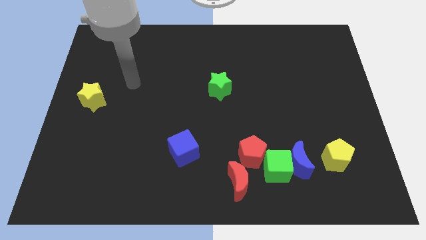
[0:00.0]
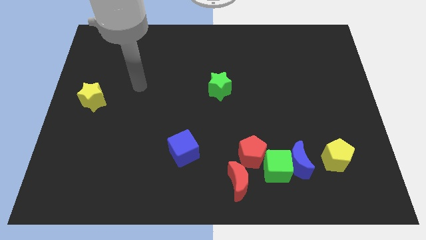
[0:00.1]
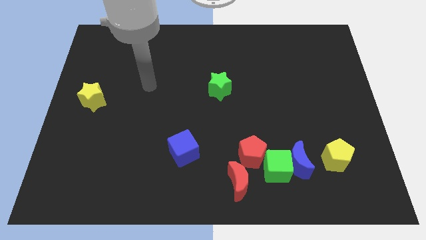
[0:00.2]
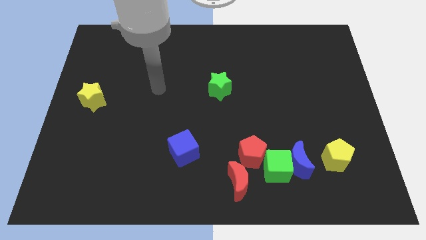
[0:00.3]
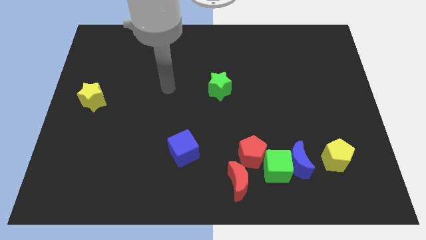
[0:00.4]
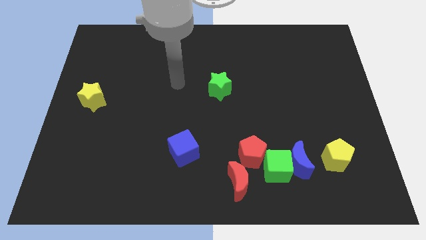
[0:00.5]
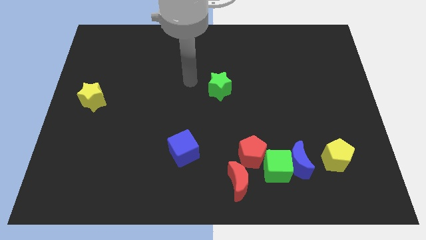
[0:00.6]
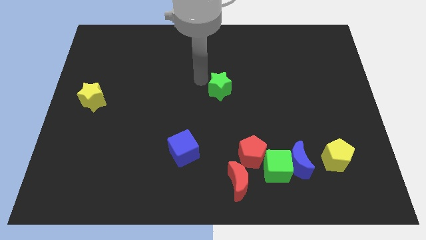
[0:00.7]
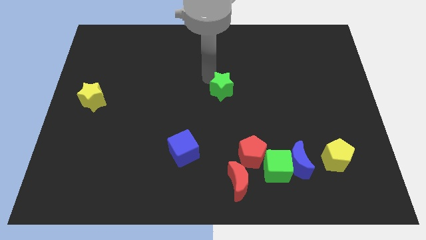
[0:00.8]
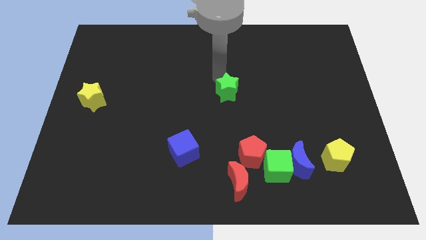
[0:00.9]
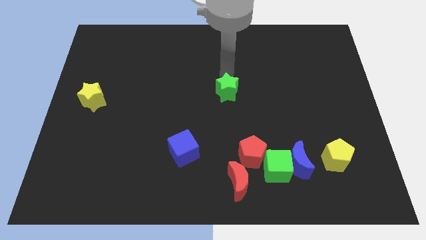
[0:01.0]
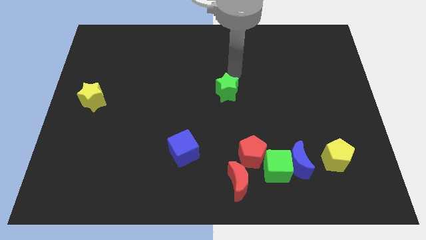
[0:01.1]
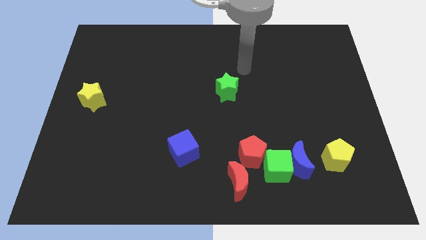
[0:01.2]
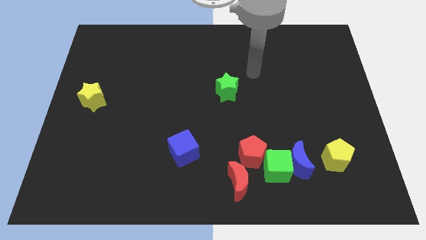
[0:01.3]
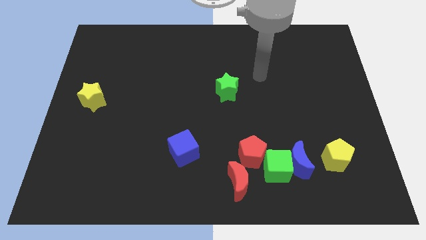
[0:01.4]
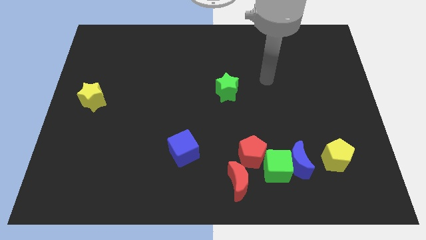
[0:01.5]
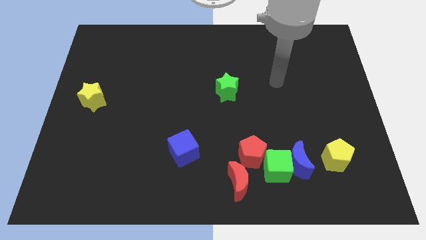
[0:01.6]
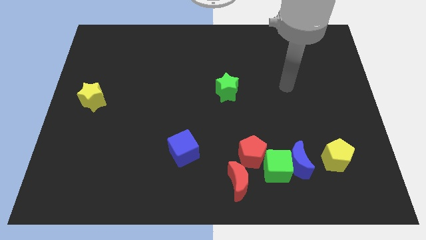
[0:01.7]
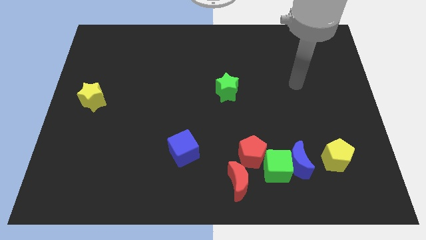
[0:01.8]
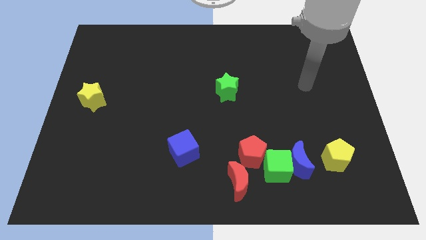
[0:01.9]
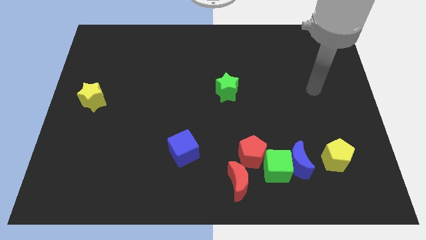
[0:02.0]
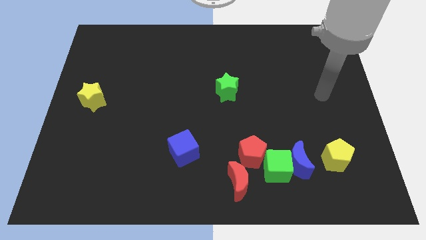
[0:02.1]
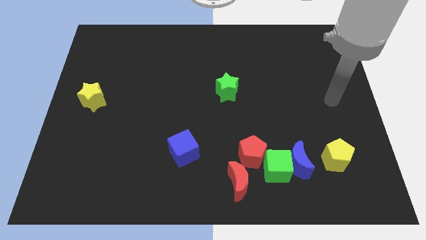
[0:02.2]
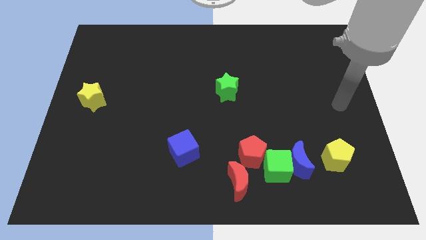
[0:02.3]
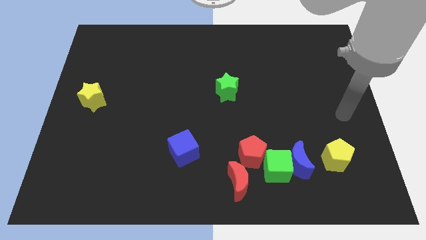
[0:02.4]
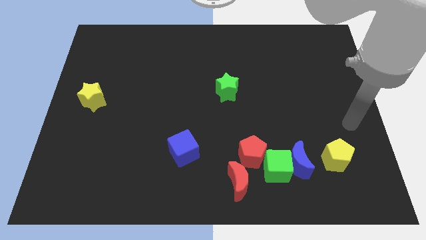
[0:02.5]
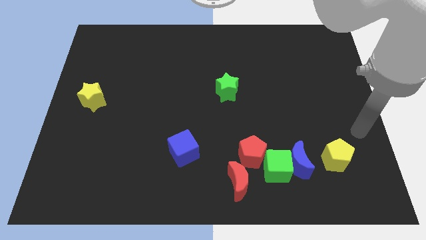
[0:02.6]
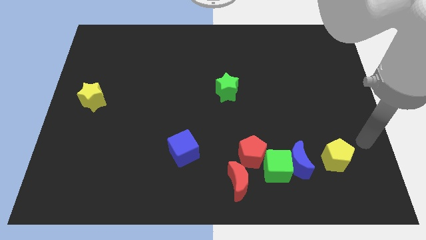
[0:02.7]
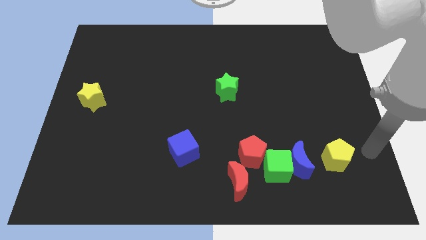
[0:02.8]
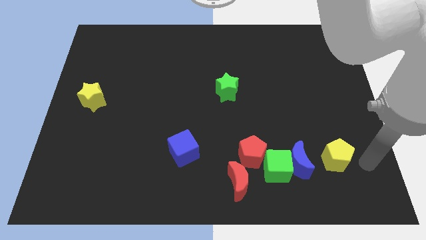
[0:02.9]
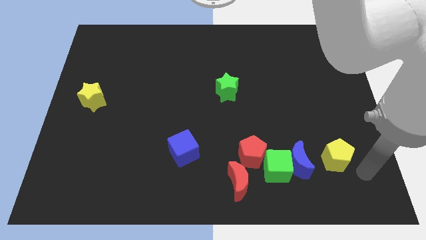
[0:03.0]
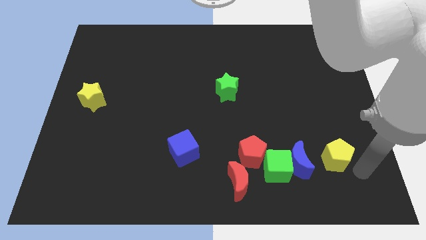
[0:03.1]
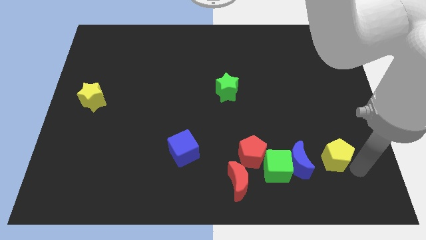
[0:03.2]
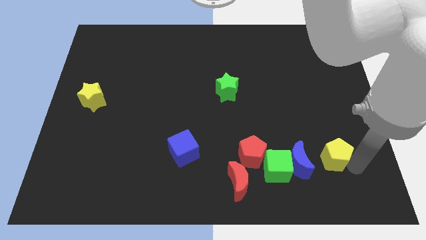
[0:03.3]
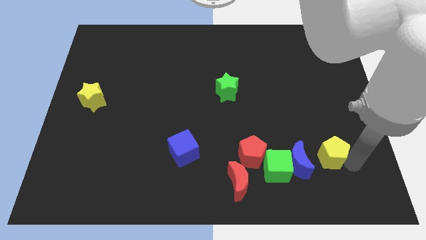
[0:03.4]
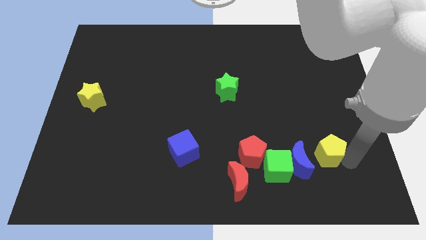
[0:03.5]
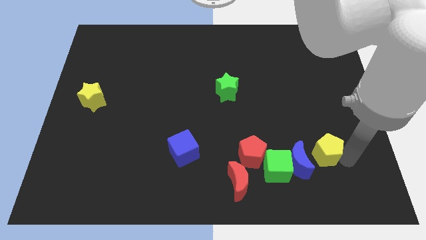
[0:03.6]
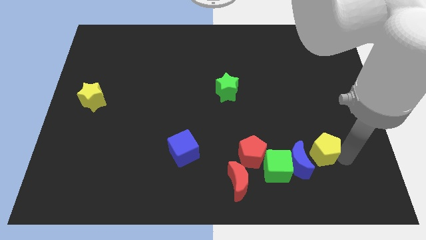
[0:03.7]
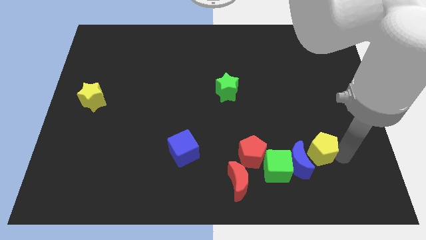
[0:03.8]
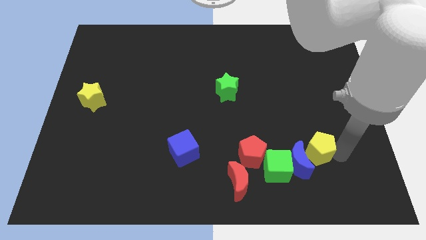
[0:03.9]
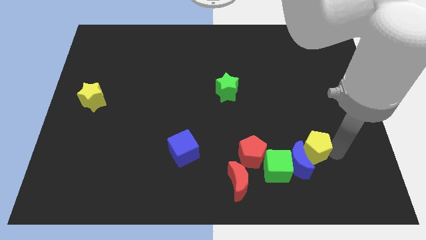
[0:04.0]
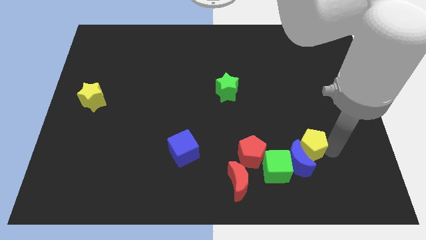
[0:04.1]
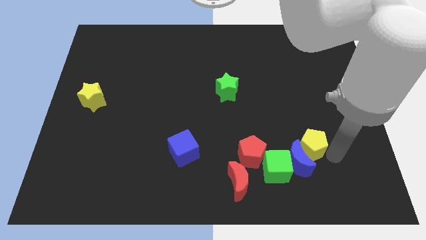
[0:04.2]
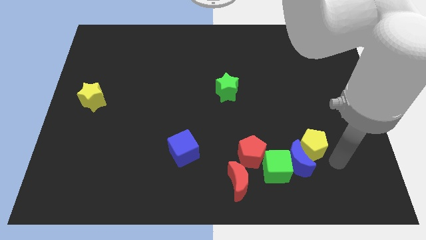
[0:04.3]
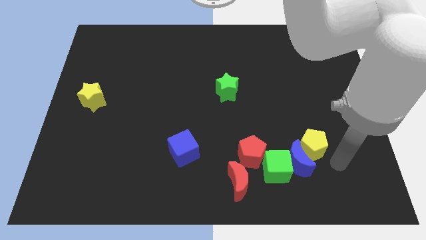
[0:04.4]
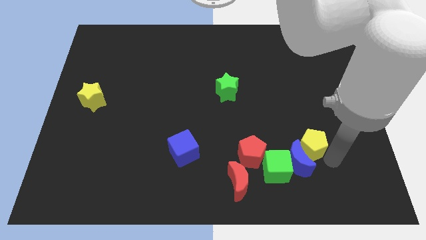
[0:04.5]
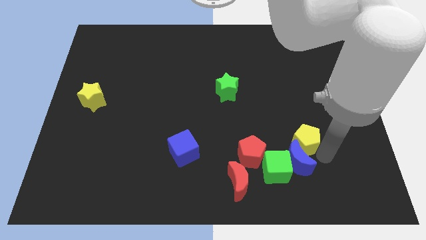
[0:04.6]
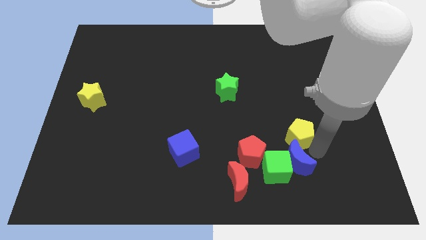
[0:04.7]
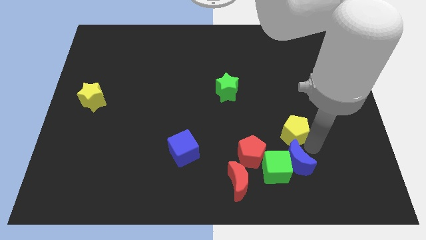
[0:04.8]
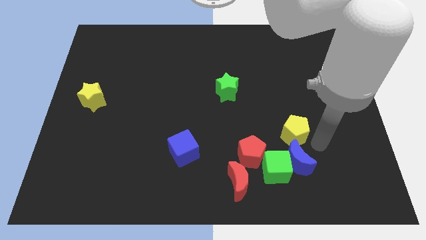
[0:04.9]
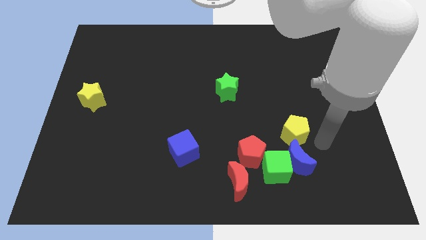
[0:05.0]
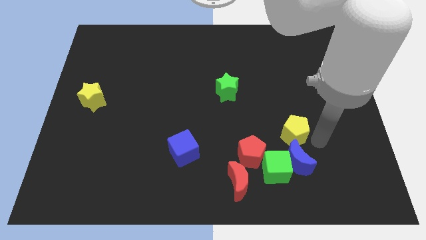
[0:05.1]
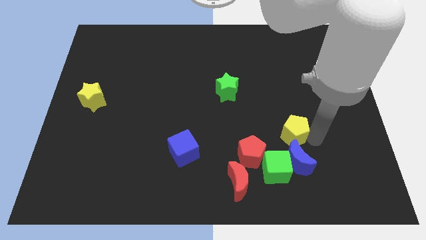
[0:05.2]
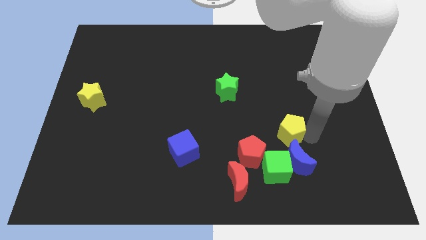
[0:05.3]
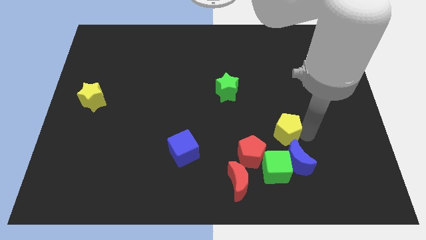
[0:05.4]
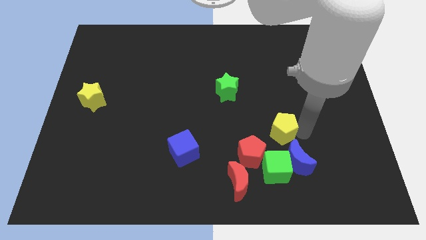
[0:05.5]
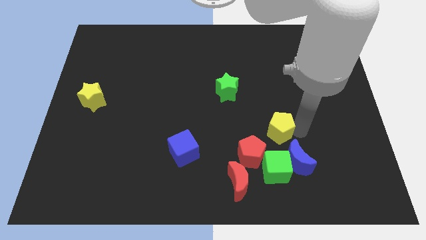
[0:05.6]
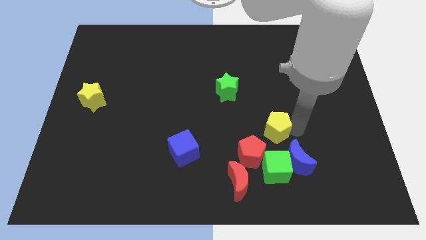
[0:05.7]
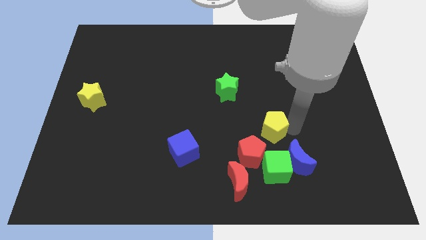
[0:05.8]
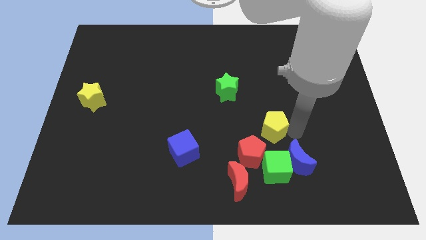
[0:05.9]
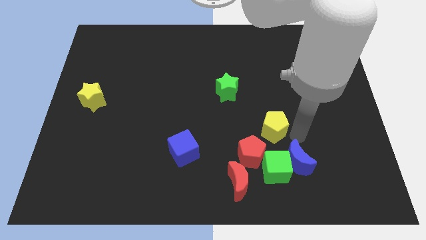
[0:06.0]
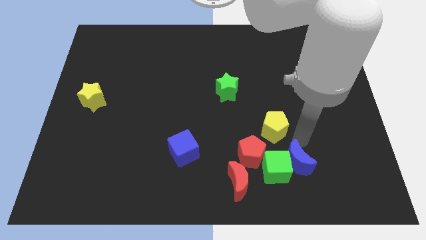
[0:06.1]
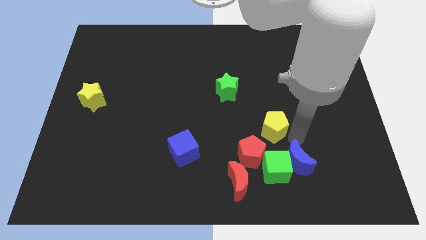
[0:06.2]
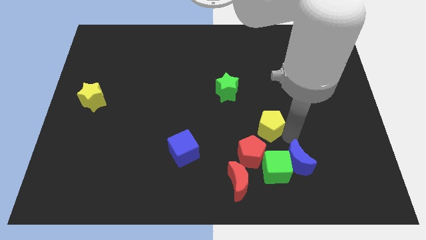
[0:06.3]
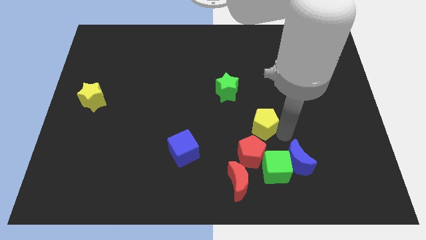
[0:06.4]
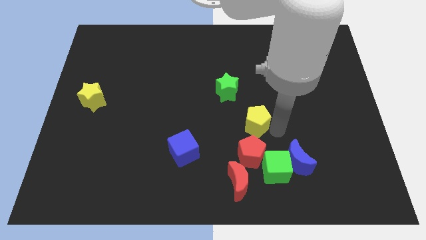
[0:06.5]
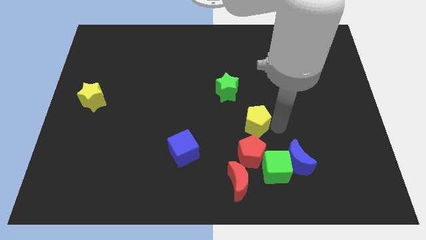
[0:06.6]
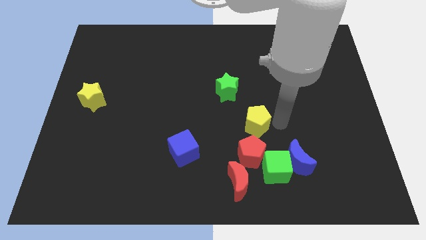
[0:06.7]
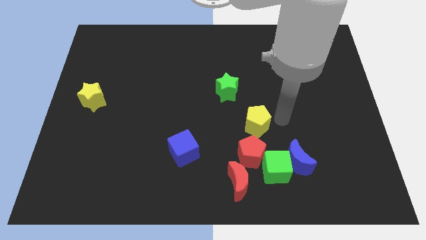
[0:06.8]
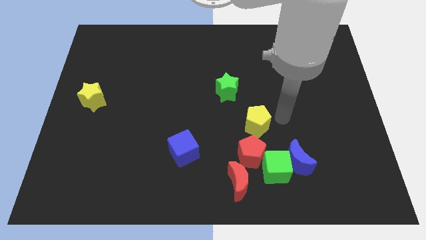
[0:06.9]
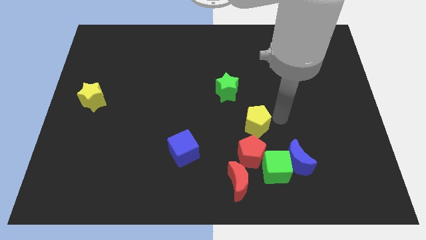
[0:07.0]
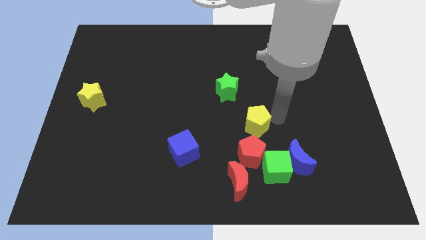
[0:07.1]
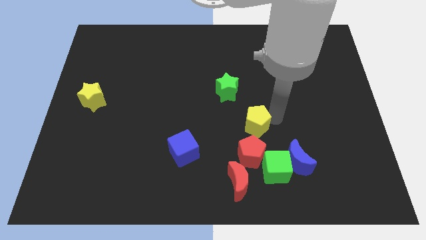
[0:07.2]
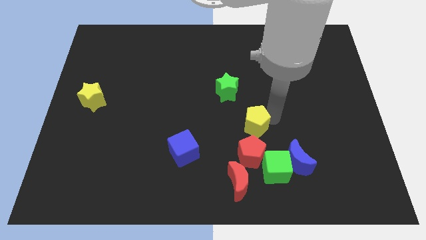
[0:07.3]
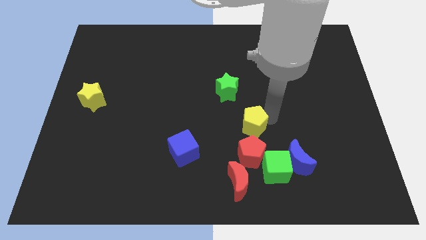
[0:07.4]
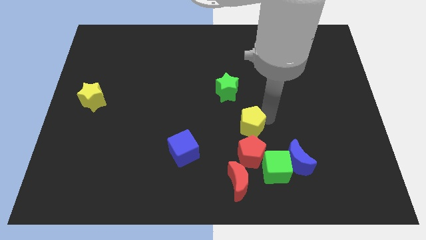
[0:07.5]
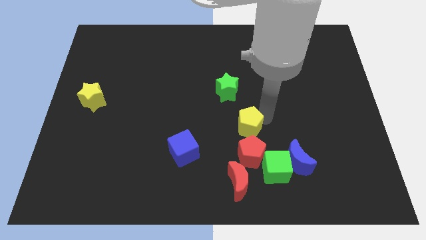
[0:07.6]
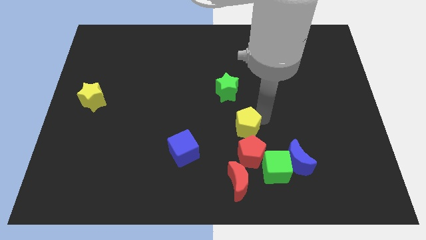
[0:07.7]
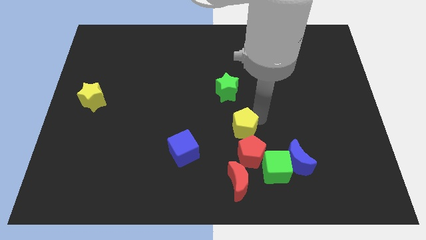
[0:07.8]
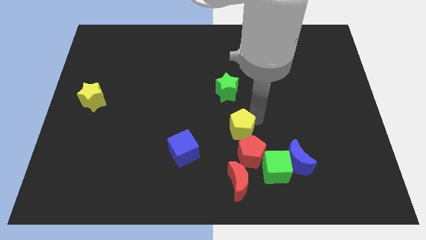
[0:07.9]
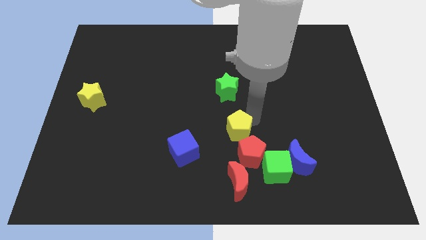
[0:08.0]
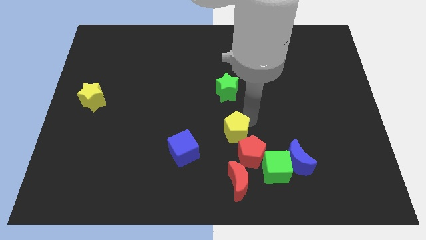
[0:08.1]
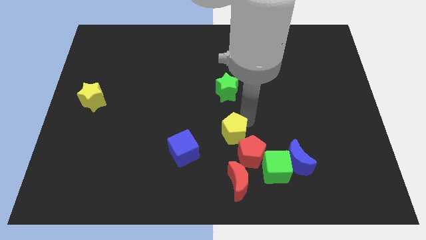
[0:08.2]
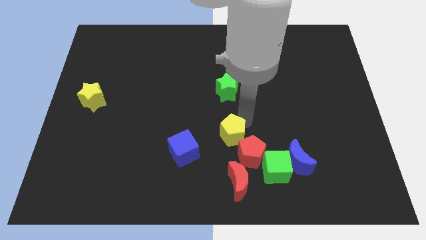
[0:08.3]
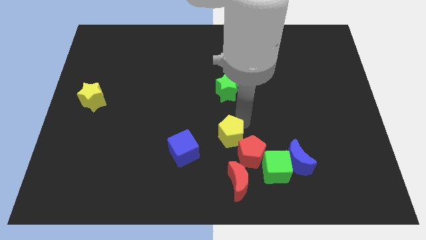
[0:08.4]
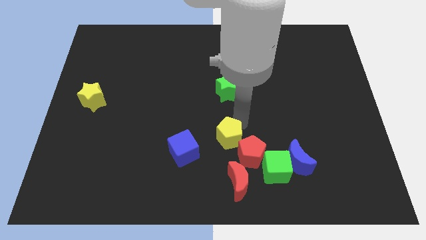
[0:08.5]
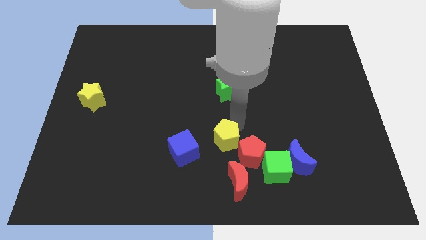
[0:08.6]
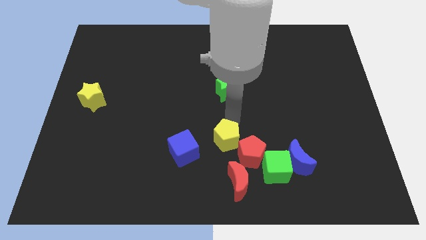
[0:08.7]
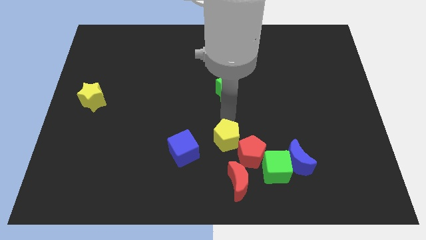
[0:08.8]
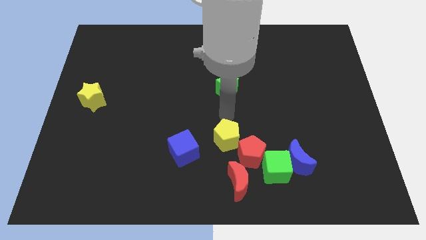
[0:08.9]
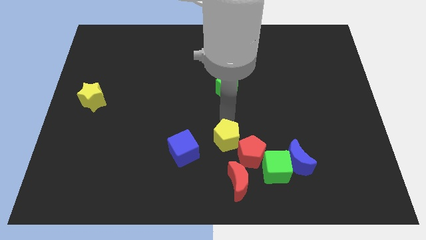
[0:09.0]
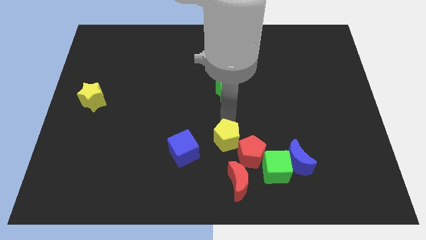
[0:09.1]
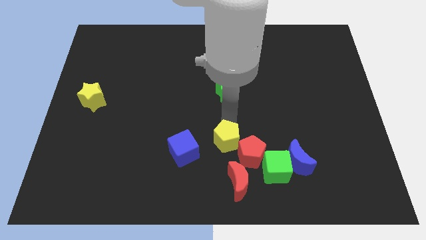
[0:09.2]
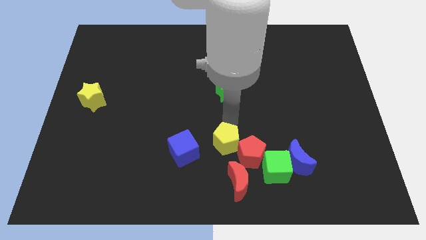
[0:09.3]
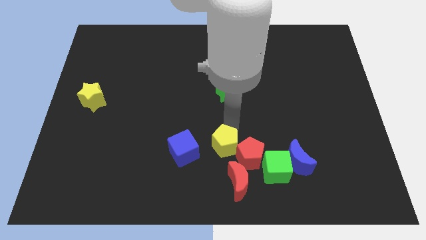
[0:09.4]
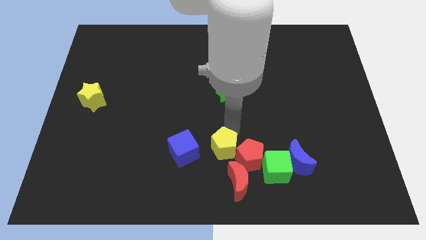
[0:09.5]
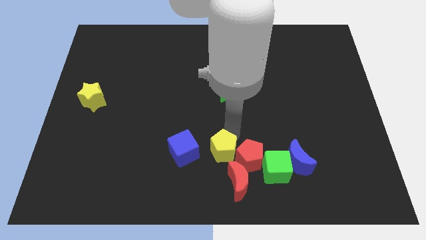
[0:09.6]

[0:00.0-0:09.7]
slide the yellow pentagon to the left side of the green cube
